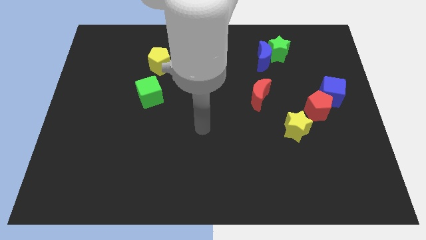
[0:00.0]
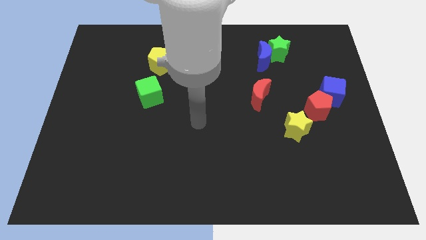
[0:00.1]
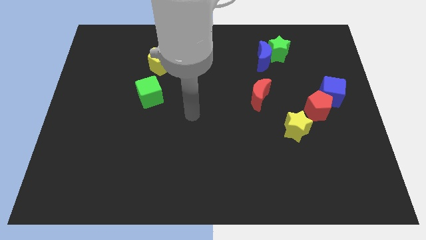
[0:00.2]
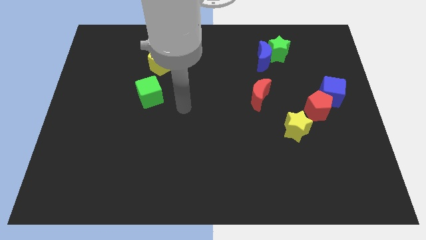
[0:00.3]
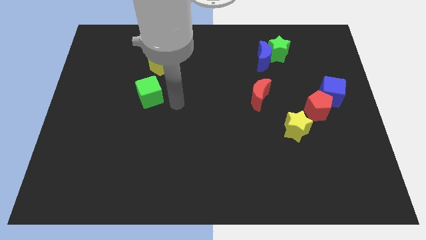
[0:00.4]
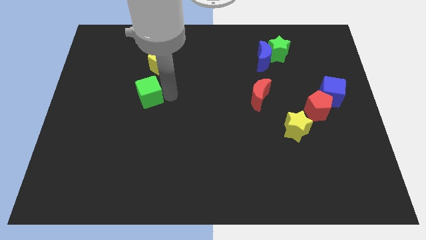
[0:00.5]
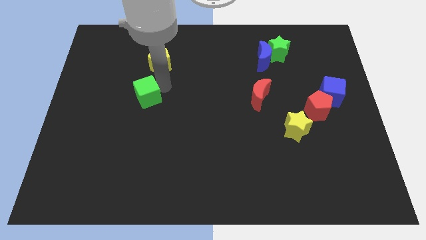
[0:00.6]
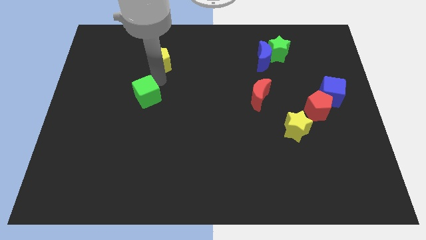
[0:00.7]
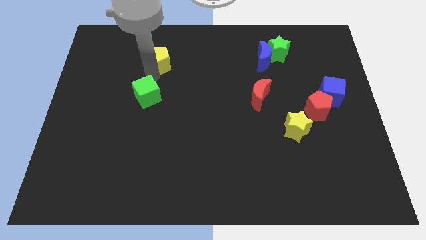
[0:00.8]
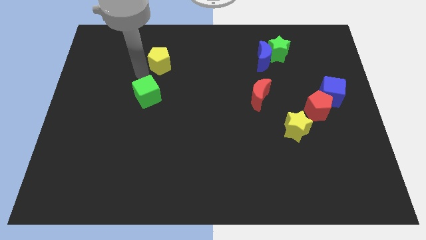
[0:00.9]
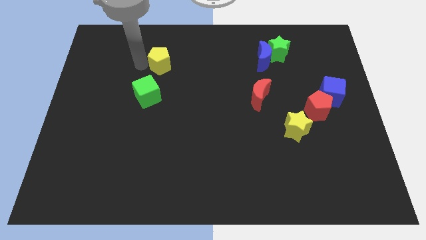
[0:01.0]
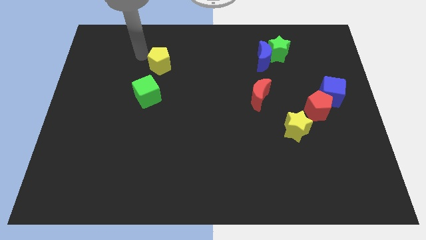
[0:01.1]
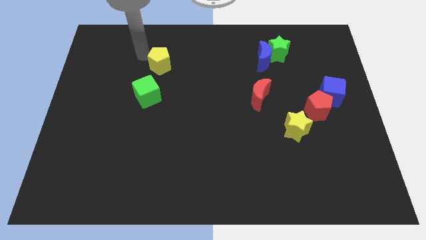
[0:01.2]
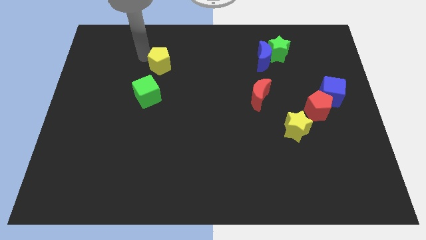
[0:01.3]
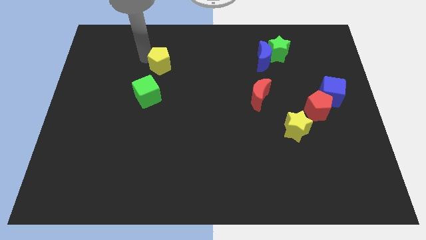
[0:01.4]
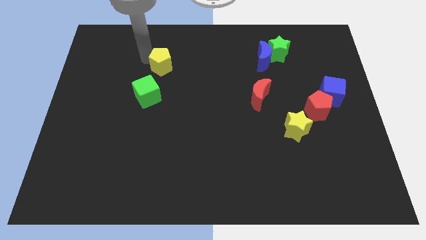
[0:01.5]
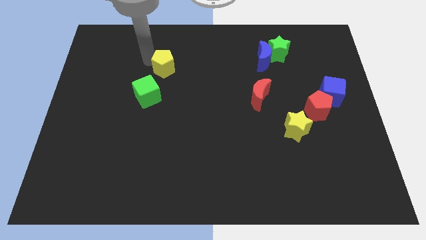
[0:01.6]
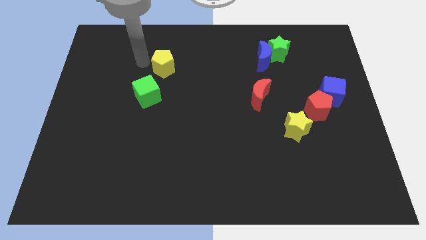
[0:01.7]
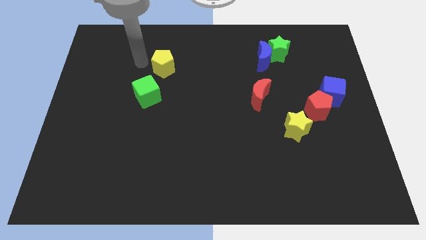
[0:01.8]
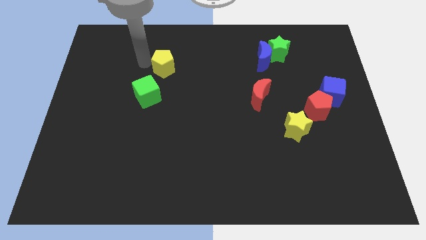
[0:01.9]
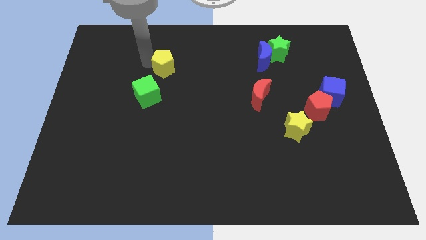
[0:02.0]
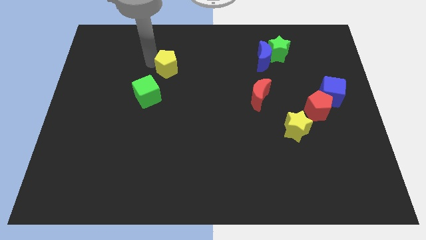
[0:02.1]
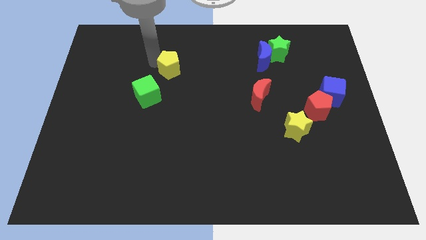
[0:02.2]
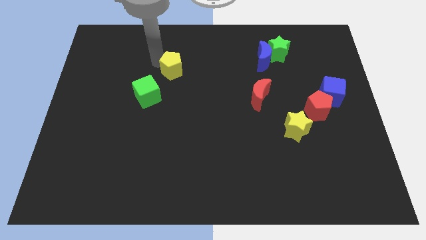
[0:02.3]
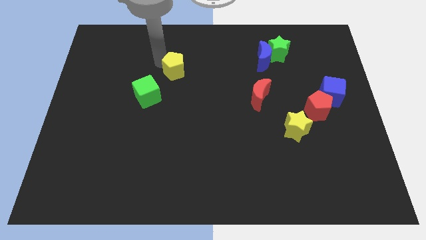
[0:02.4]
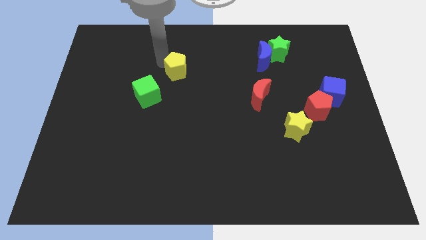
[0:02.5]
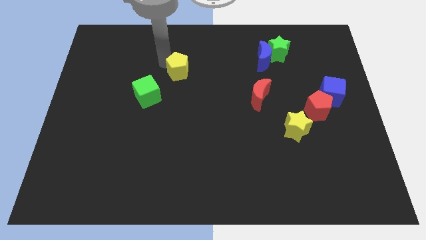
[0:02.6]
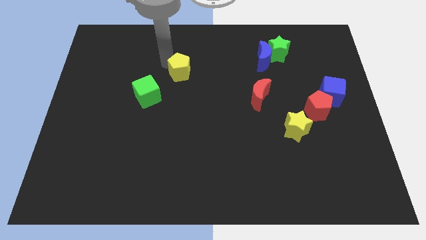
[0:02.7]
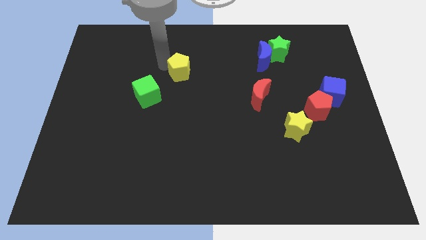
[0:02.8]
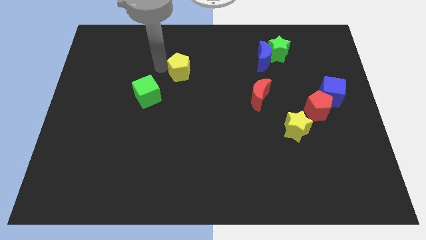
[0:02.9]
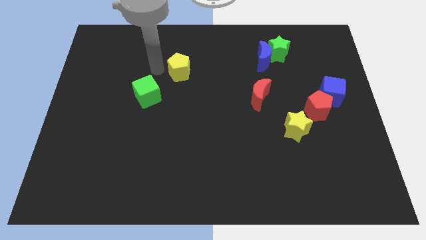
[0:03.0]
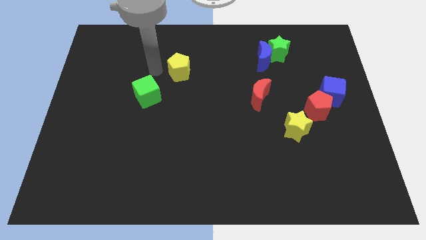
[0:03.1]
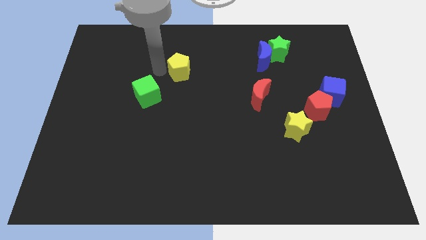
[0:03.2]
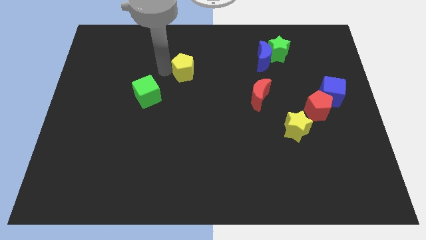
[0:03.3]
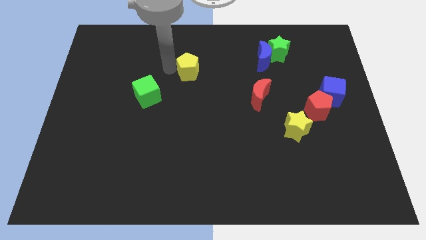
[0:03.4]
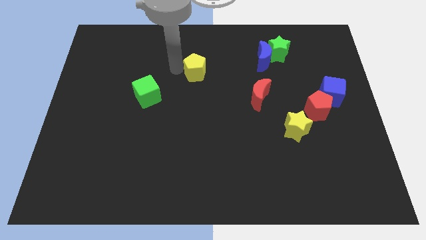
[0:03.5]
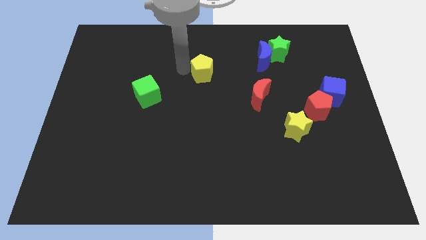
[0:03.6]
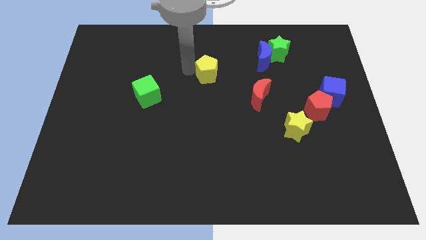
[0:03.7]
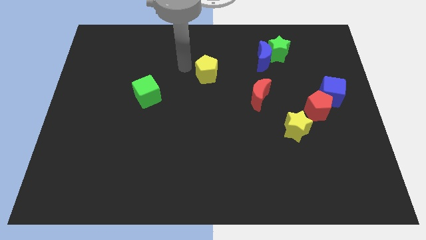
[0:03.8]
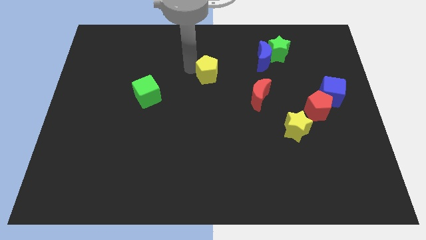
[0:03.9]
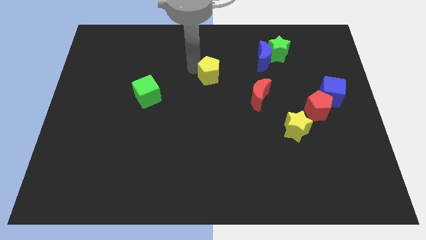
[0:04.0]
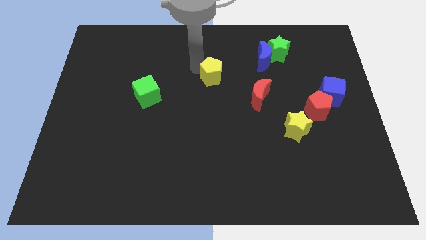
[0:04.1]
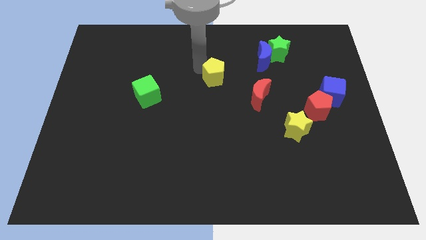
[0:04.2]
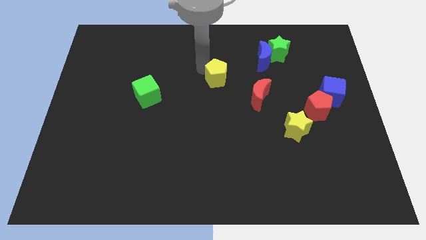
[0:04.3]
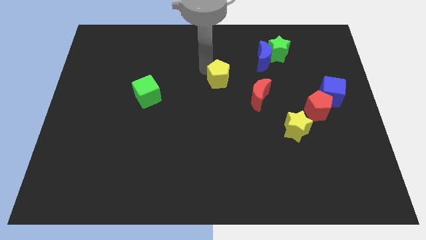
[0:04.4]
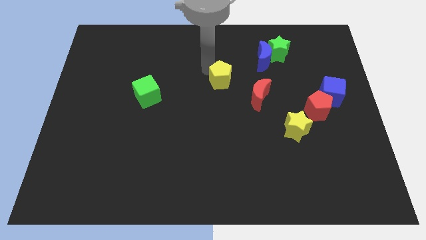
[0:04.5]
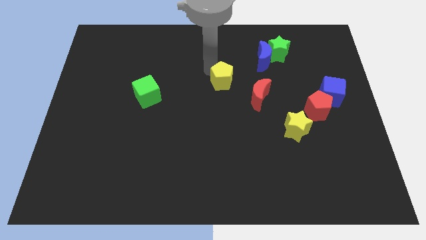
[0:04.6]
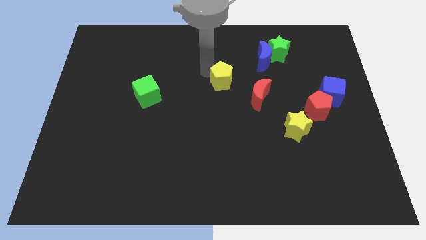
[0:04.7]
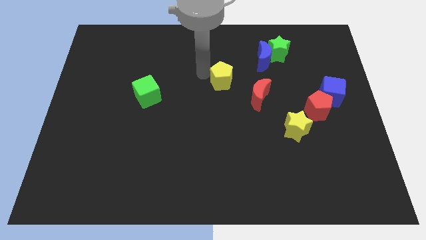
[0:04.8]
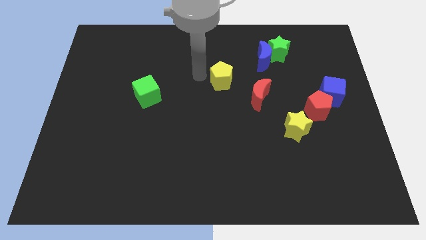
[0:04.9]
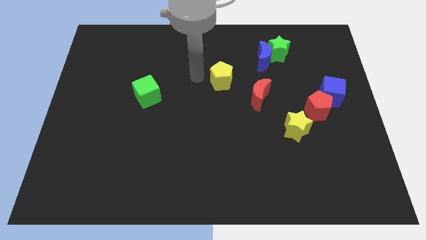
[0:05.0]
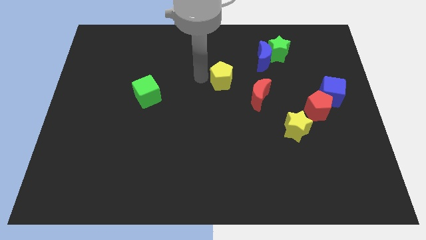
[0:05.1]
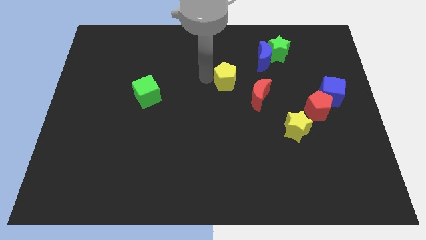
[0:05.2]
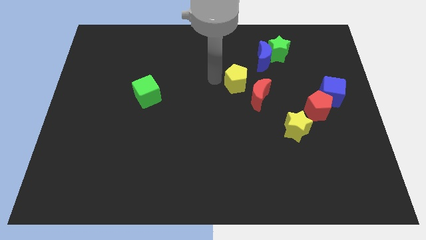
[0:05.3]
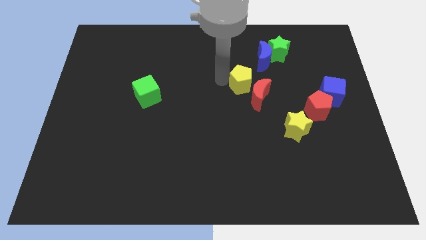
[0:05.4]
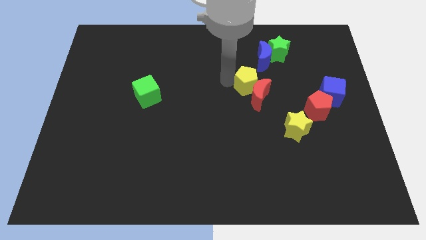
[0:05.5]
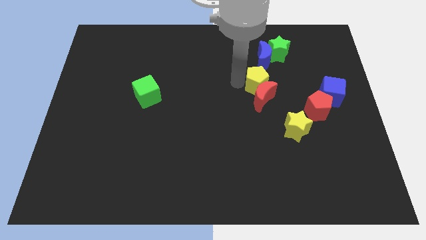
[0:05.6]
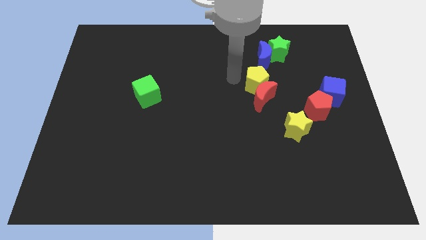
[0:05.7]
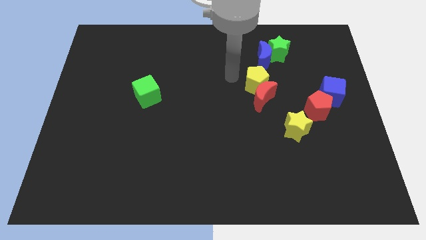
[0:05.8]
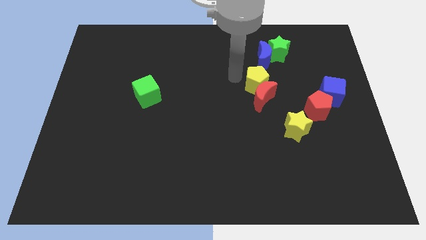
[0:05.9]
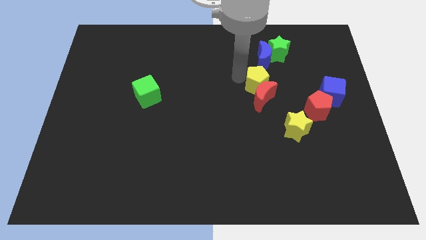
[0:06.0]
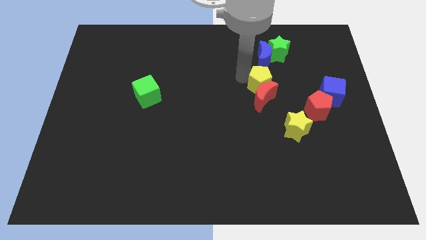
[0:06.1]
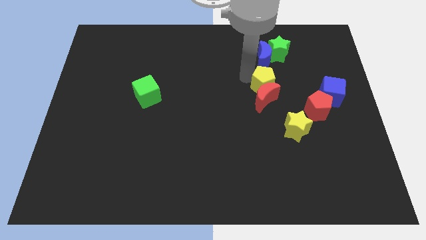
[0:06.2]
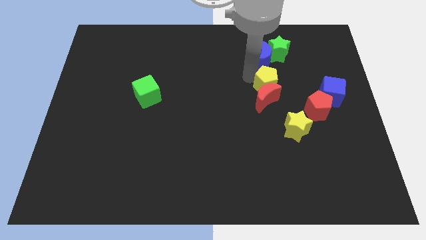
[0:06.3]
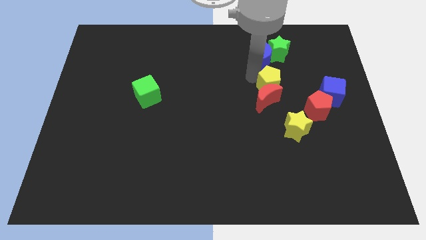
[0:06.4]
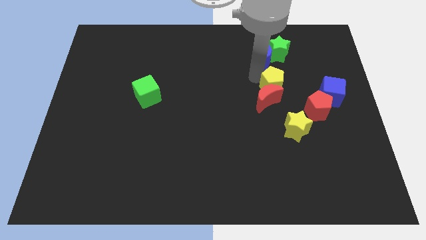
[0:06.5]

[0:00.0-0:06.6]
move the yellow pentagon to the top left side of the red pentagon

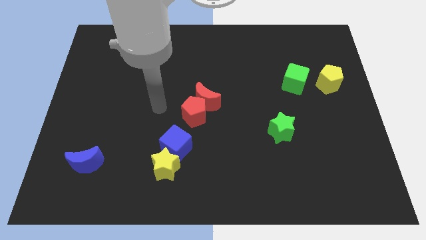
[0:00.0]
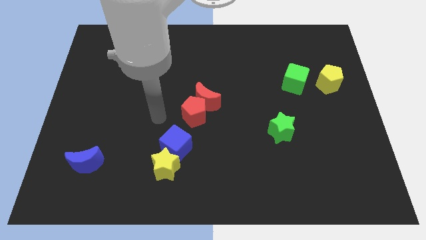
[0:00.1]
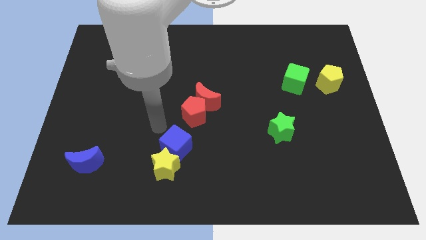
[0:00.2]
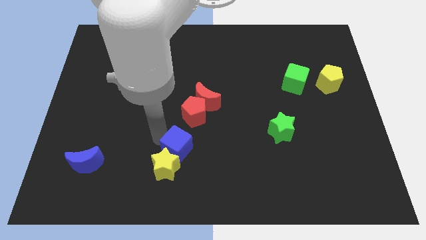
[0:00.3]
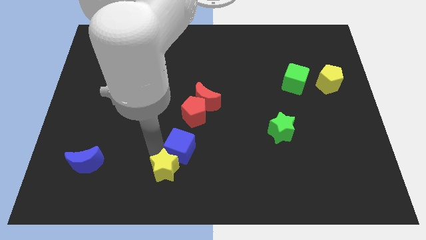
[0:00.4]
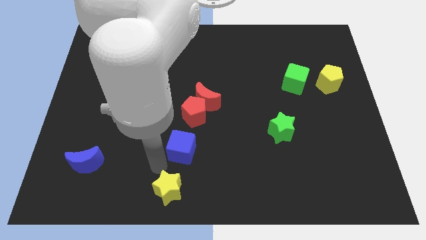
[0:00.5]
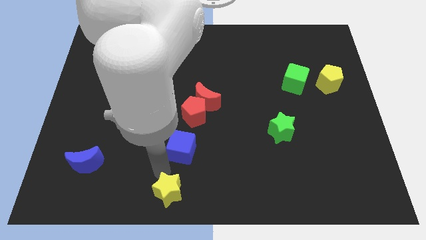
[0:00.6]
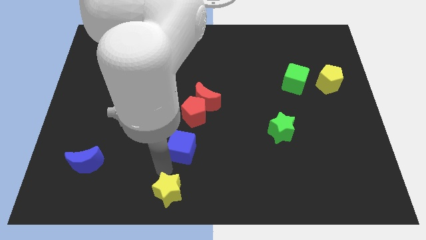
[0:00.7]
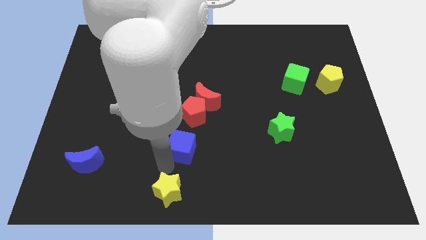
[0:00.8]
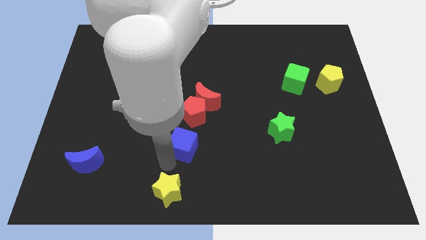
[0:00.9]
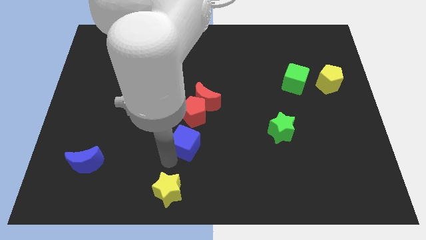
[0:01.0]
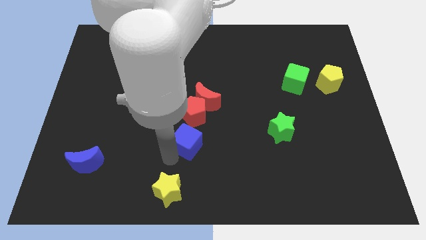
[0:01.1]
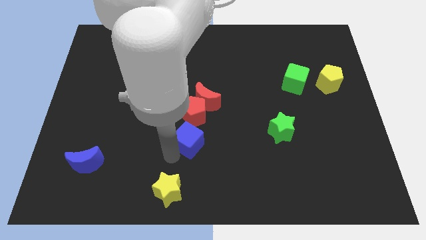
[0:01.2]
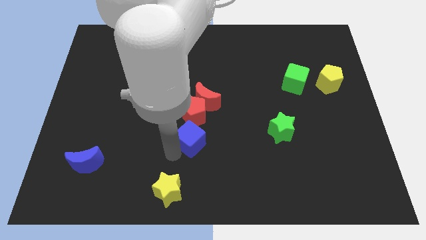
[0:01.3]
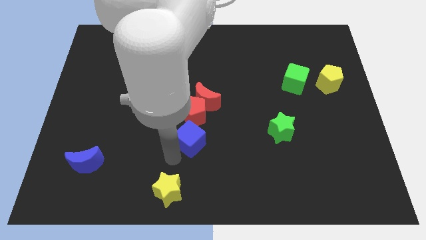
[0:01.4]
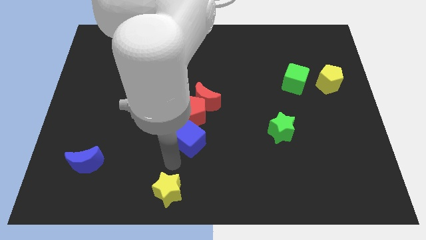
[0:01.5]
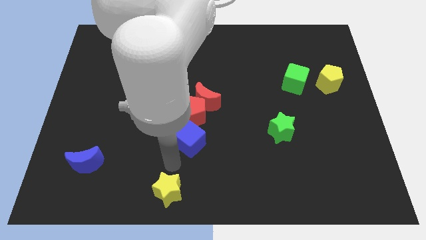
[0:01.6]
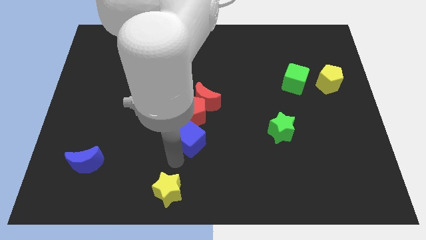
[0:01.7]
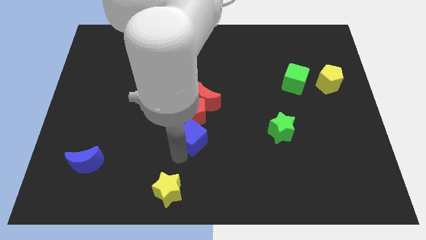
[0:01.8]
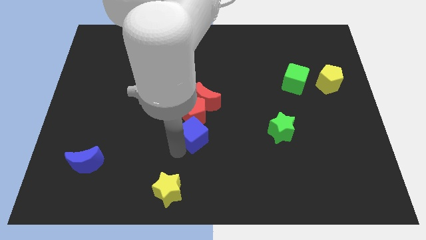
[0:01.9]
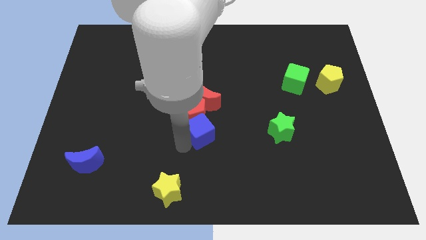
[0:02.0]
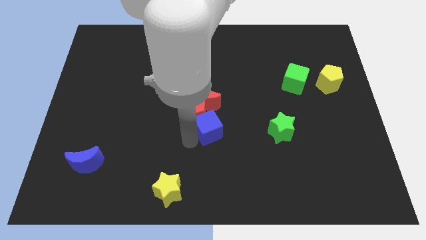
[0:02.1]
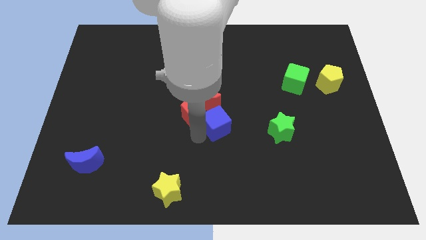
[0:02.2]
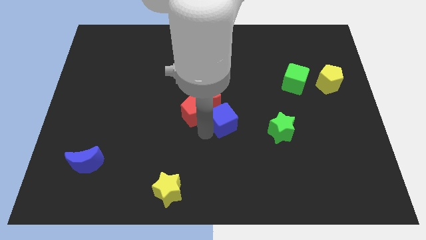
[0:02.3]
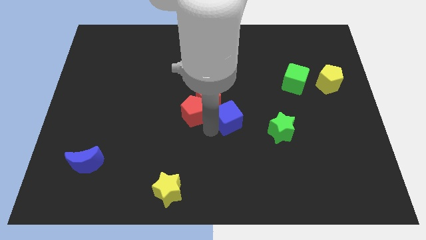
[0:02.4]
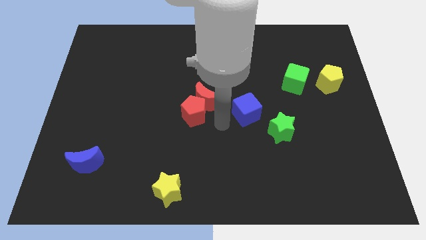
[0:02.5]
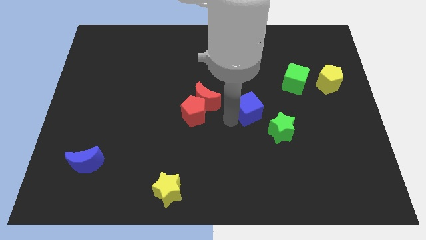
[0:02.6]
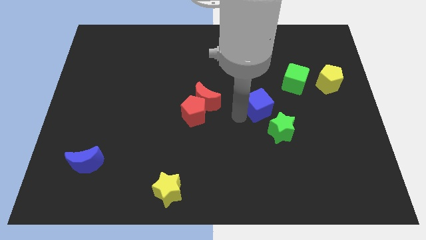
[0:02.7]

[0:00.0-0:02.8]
slide the blue cube to the bottom left side of the green cube
